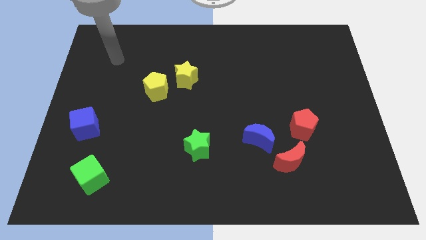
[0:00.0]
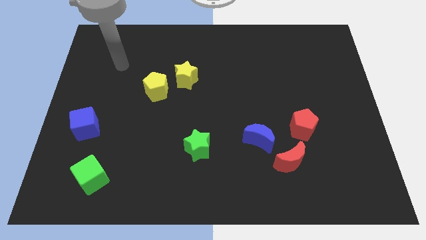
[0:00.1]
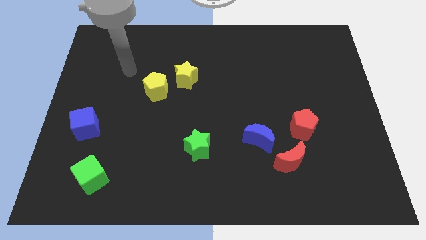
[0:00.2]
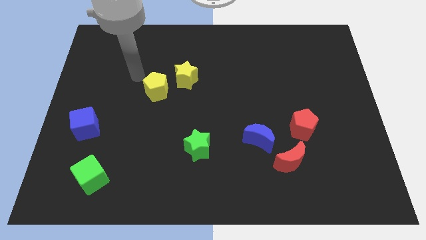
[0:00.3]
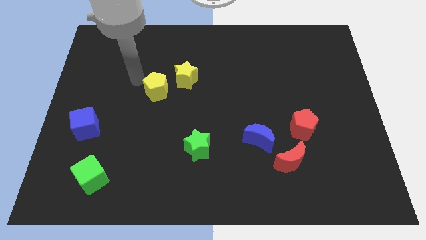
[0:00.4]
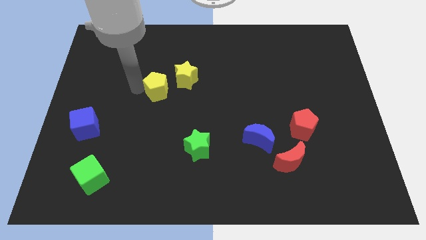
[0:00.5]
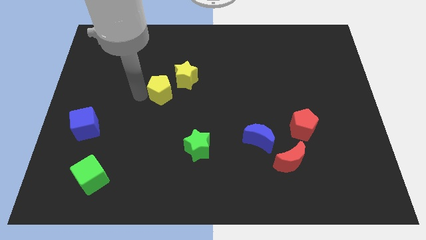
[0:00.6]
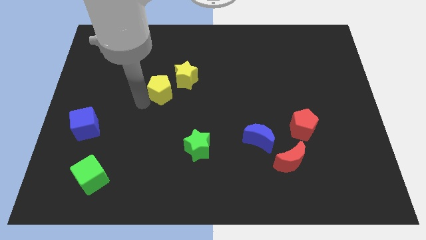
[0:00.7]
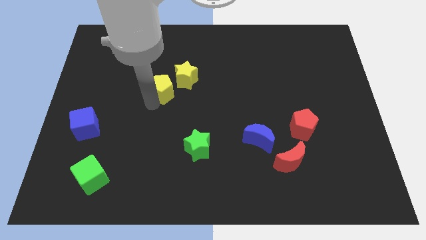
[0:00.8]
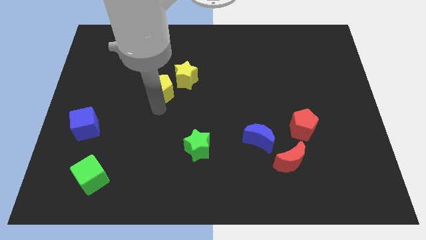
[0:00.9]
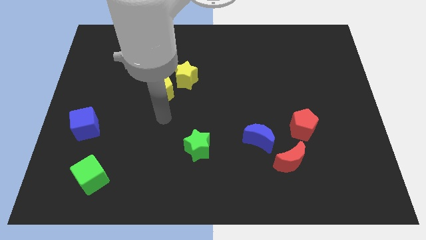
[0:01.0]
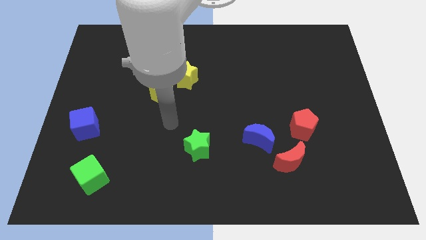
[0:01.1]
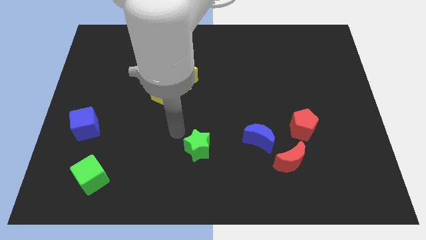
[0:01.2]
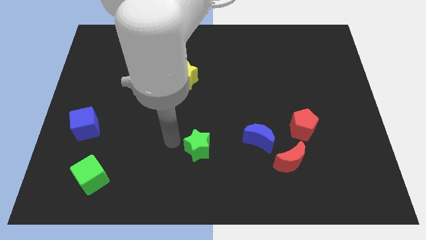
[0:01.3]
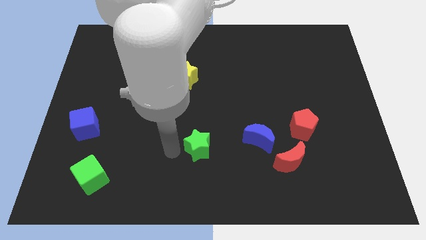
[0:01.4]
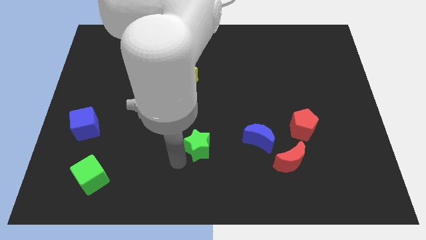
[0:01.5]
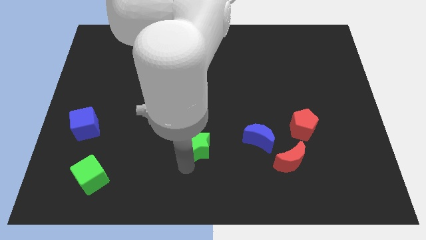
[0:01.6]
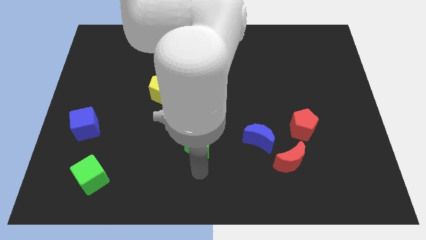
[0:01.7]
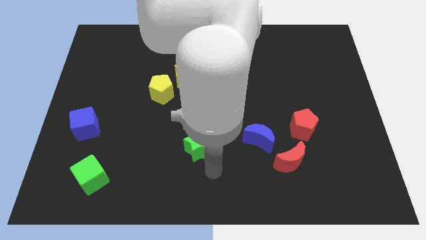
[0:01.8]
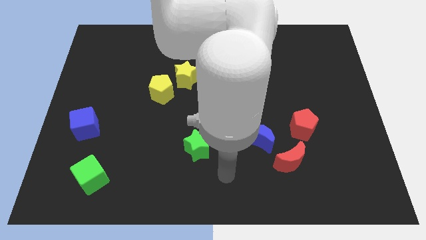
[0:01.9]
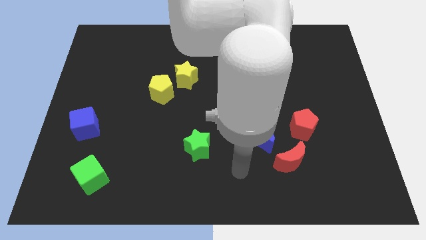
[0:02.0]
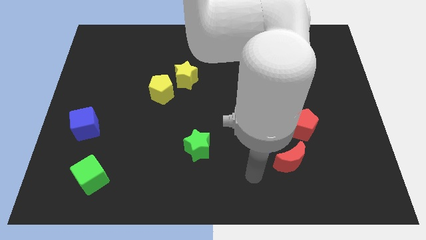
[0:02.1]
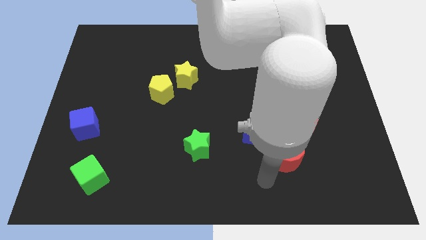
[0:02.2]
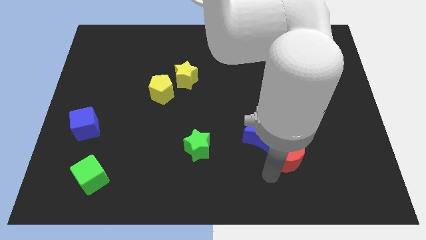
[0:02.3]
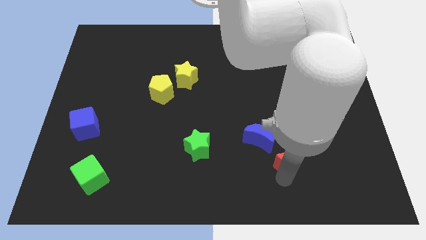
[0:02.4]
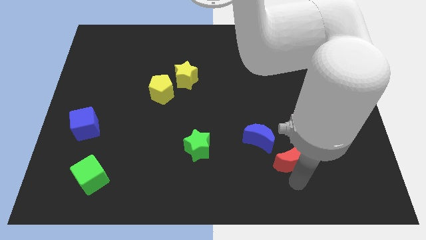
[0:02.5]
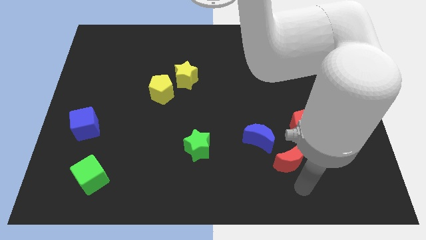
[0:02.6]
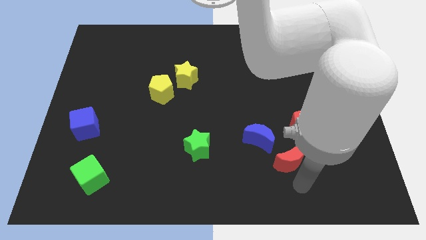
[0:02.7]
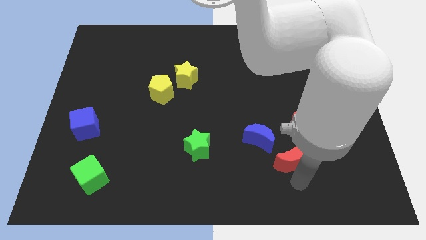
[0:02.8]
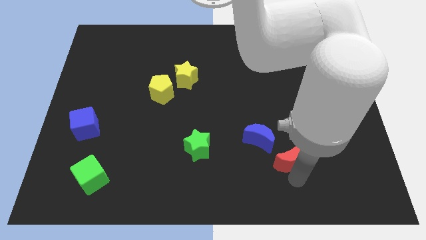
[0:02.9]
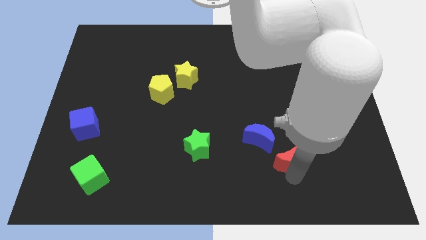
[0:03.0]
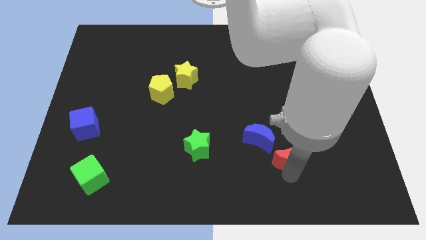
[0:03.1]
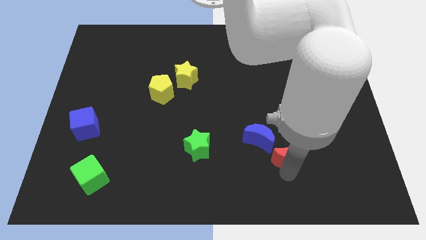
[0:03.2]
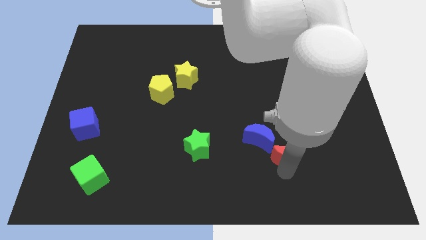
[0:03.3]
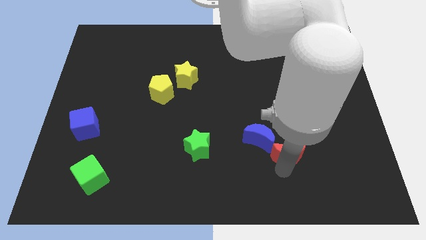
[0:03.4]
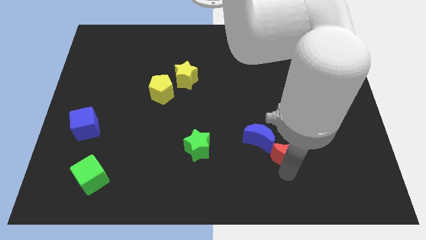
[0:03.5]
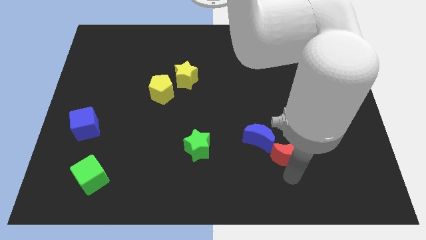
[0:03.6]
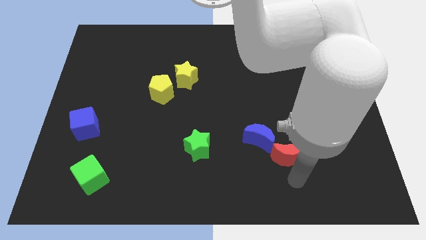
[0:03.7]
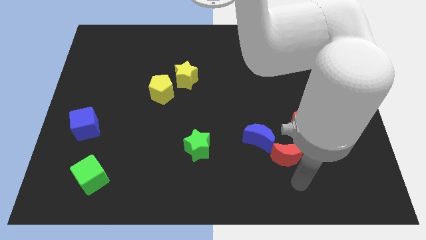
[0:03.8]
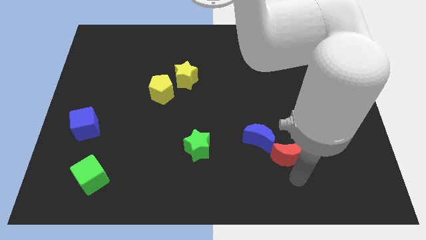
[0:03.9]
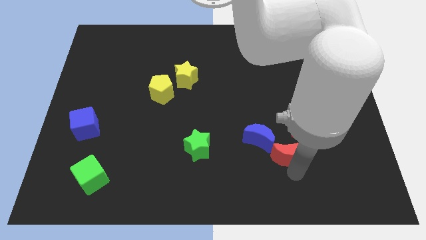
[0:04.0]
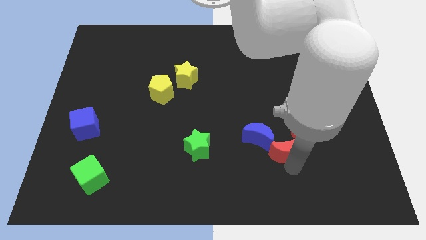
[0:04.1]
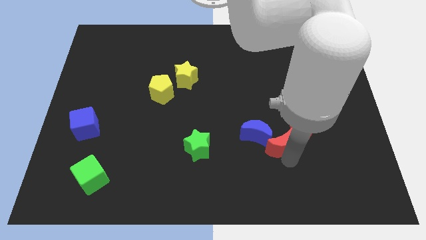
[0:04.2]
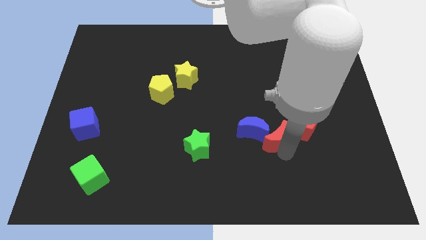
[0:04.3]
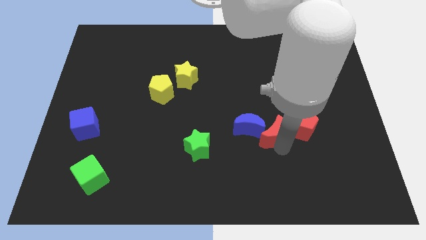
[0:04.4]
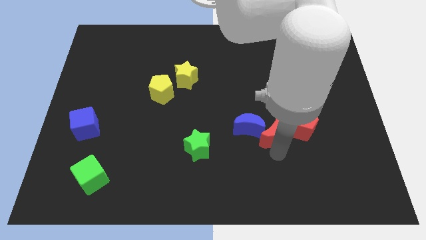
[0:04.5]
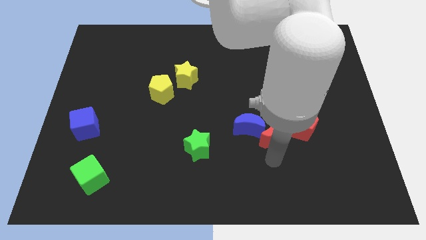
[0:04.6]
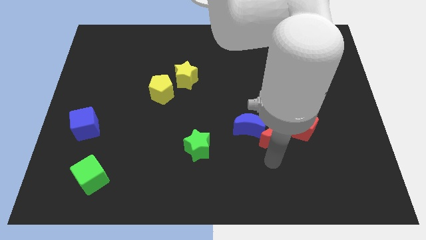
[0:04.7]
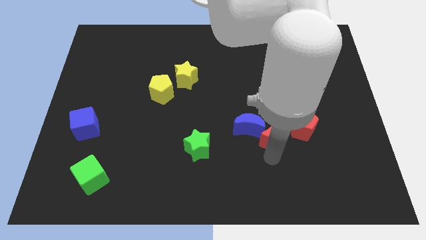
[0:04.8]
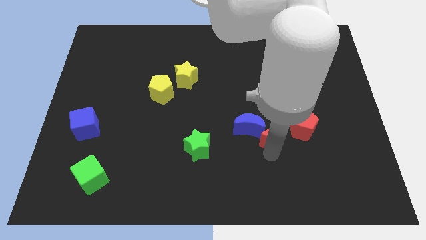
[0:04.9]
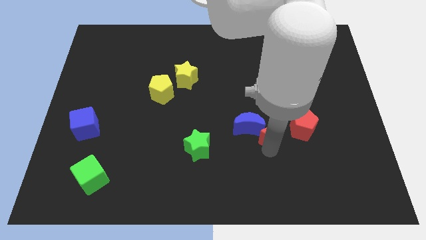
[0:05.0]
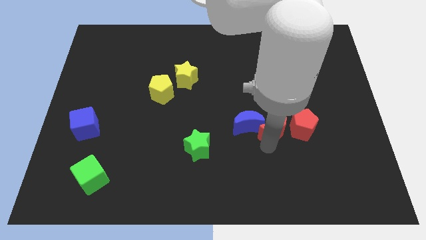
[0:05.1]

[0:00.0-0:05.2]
slightly move the red moon upwards

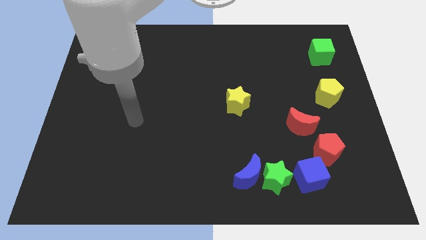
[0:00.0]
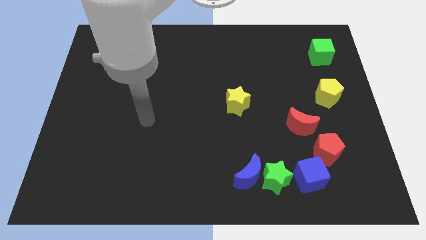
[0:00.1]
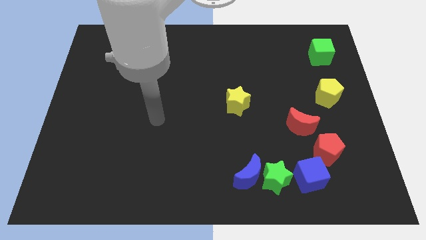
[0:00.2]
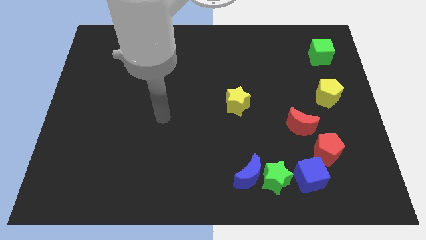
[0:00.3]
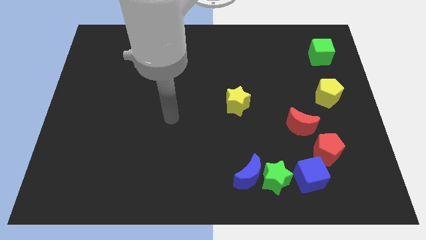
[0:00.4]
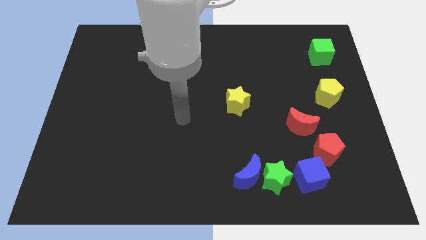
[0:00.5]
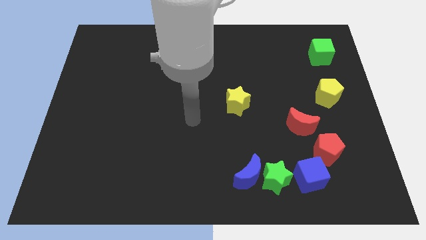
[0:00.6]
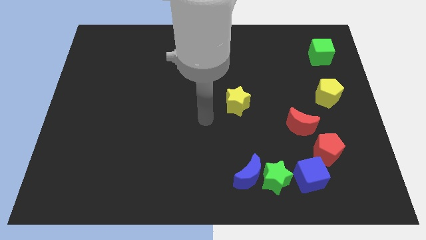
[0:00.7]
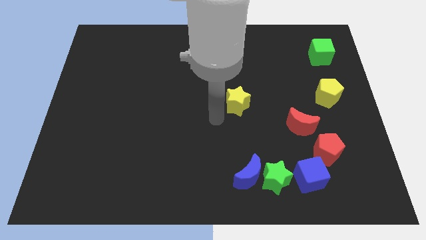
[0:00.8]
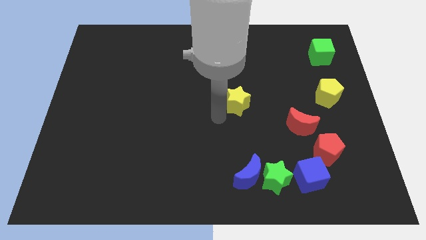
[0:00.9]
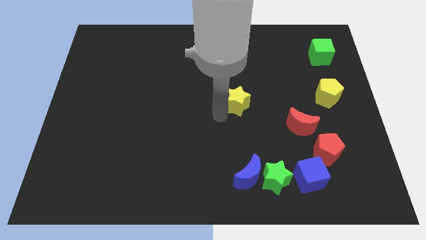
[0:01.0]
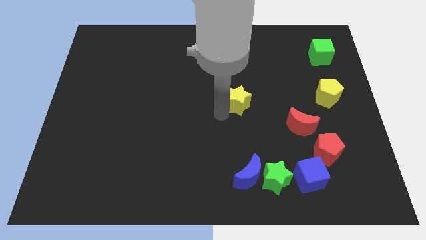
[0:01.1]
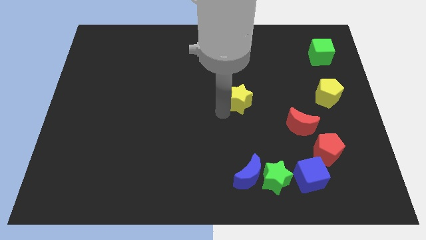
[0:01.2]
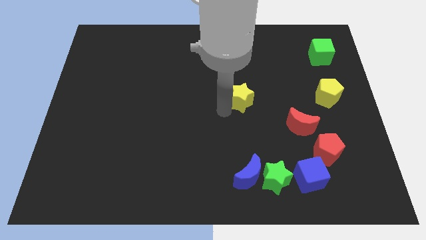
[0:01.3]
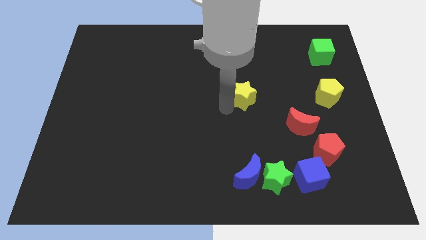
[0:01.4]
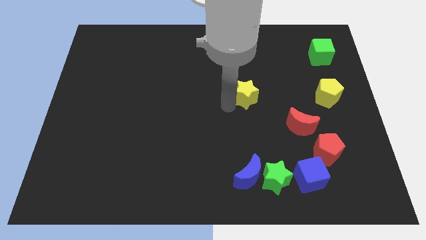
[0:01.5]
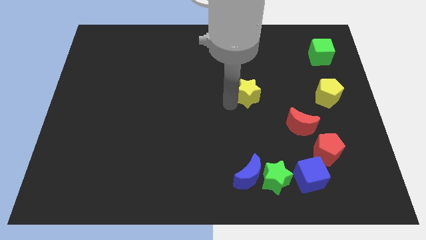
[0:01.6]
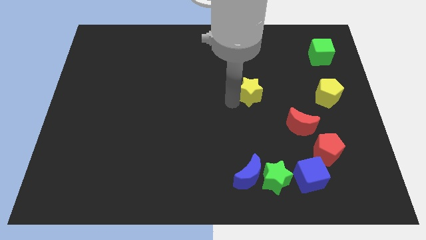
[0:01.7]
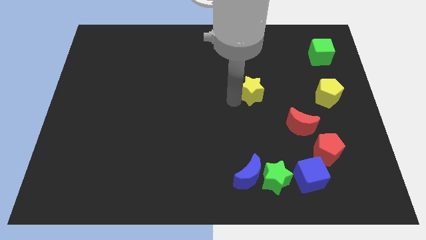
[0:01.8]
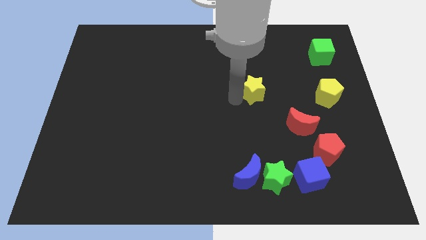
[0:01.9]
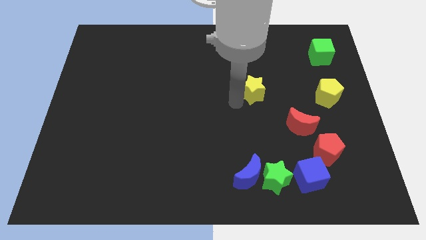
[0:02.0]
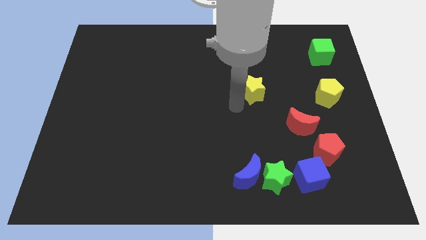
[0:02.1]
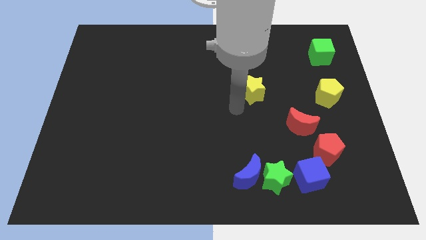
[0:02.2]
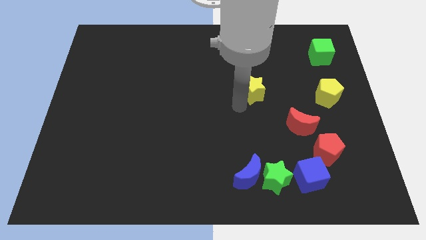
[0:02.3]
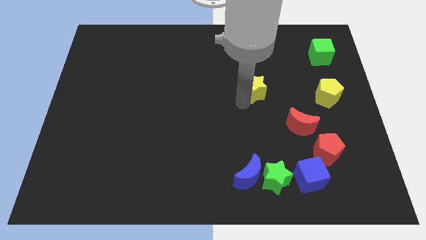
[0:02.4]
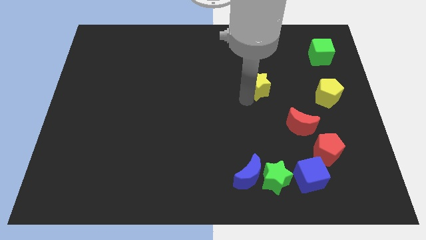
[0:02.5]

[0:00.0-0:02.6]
push the yellow star diagonally upwards and right somewhat
